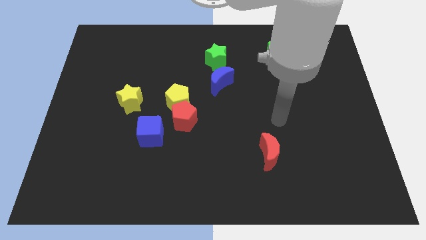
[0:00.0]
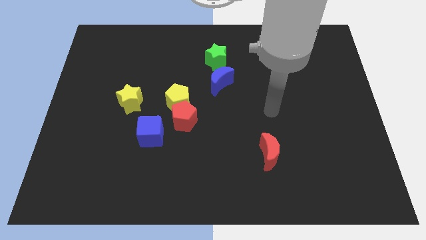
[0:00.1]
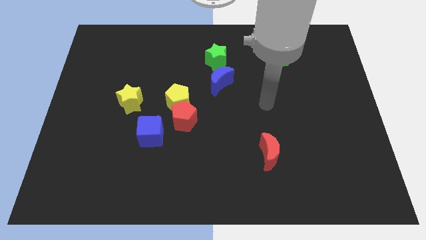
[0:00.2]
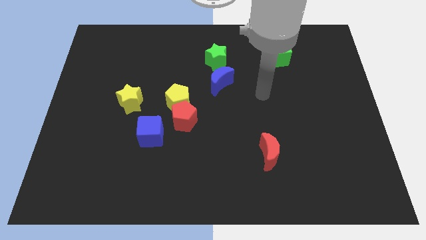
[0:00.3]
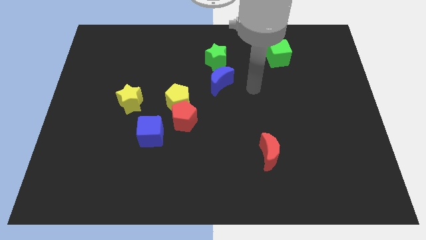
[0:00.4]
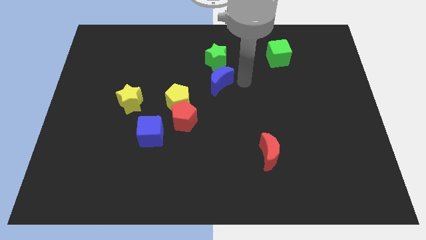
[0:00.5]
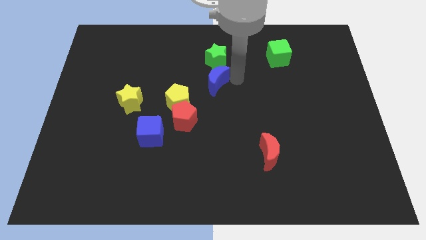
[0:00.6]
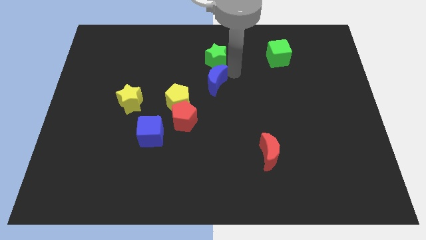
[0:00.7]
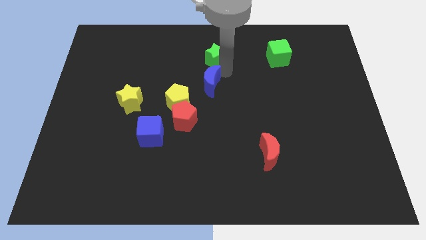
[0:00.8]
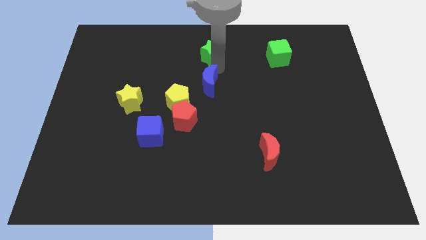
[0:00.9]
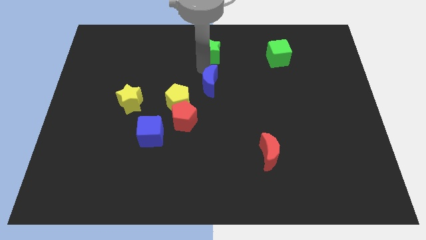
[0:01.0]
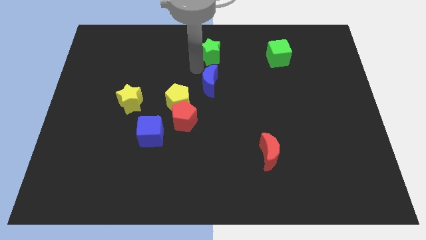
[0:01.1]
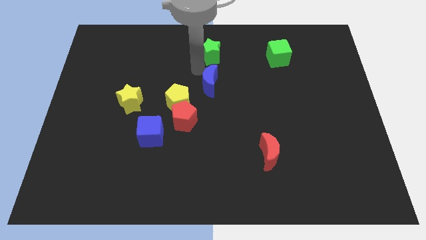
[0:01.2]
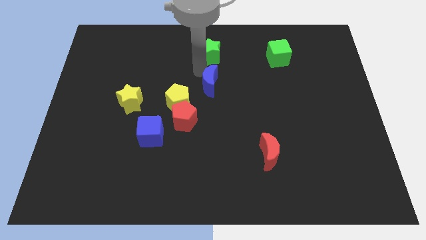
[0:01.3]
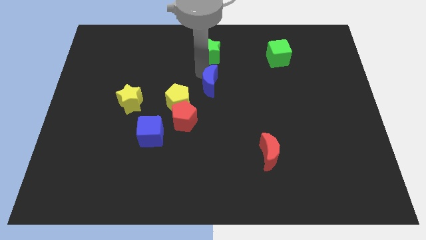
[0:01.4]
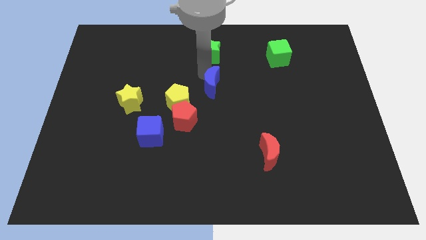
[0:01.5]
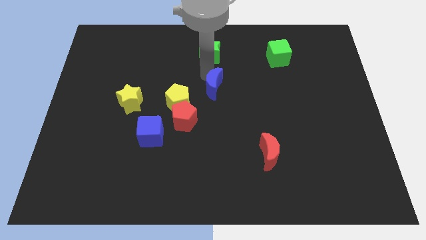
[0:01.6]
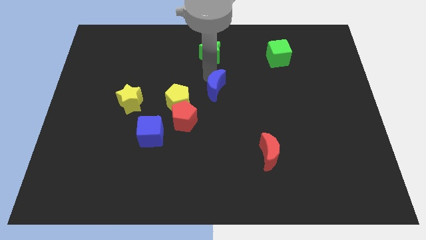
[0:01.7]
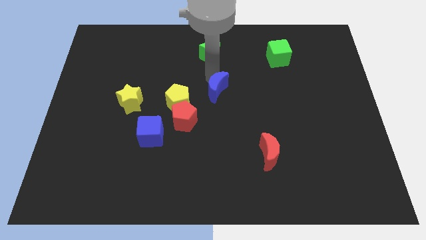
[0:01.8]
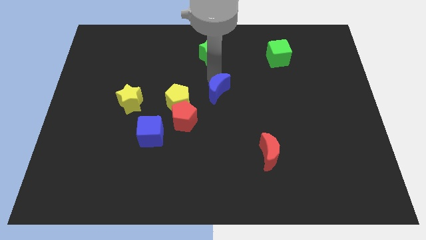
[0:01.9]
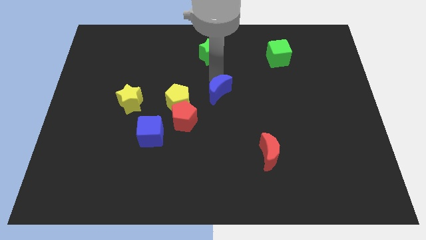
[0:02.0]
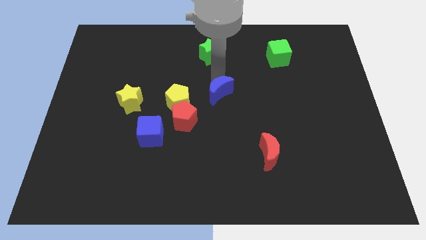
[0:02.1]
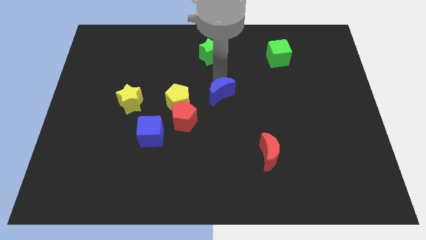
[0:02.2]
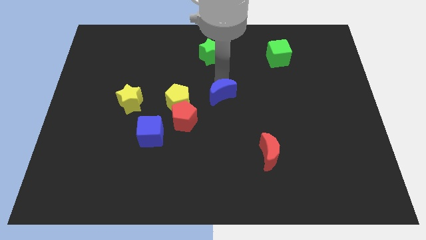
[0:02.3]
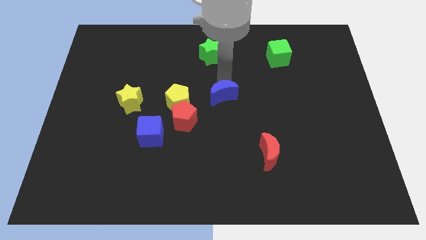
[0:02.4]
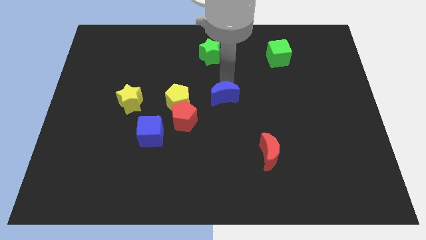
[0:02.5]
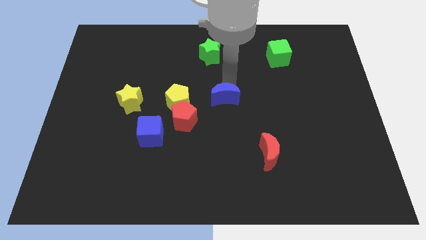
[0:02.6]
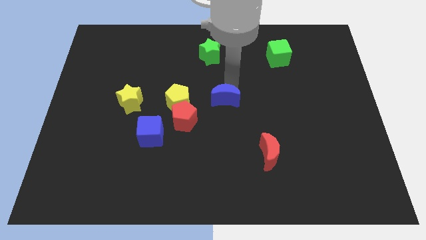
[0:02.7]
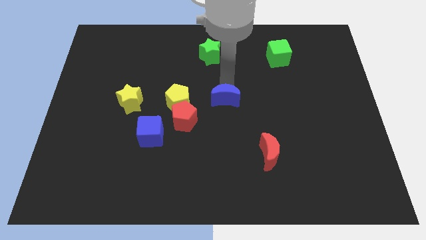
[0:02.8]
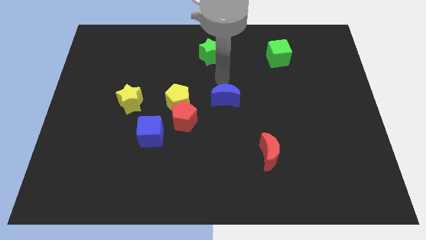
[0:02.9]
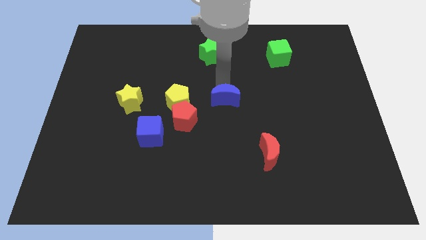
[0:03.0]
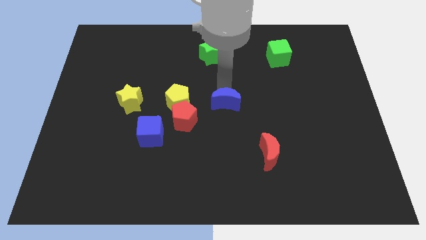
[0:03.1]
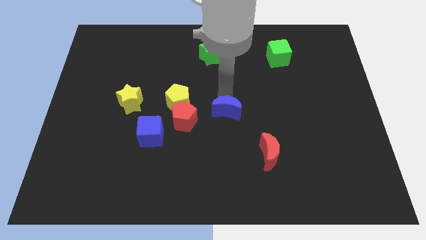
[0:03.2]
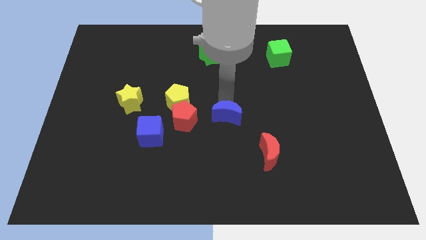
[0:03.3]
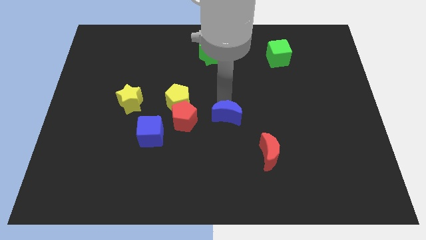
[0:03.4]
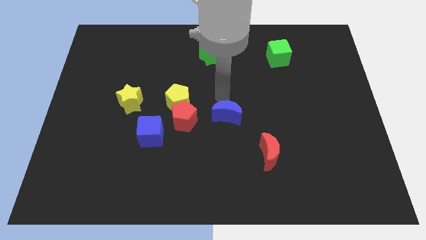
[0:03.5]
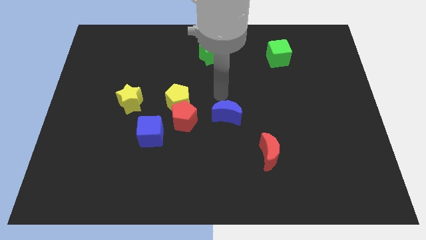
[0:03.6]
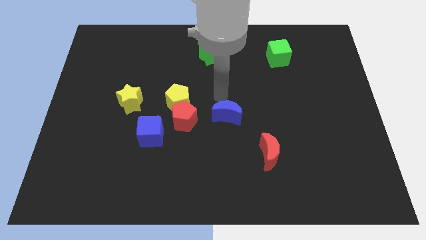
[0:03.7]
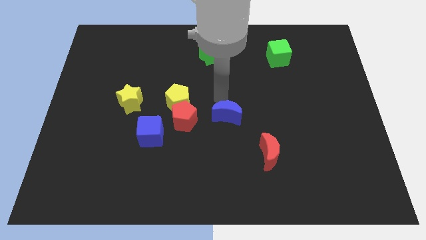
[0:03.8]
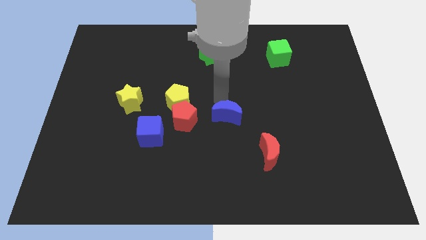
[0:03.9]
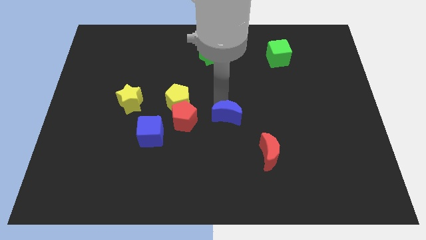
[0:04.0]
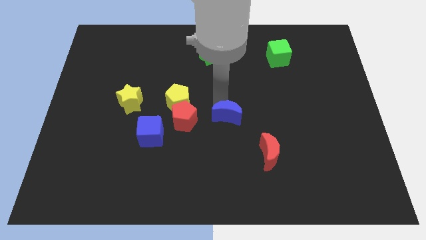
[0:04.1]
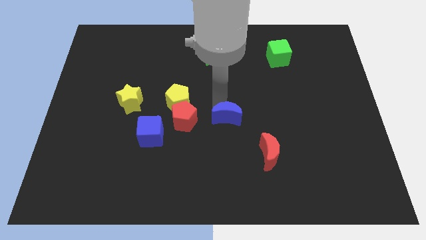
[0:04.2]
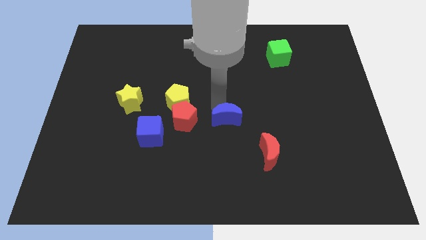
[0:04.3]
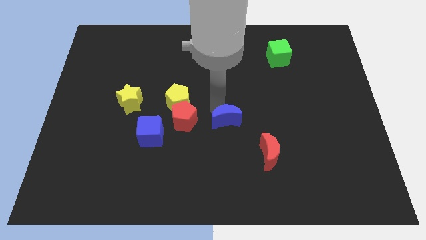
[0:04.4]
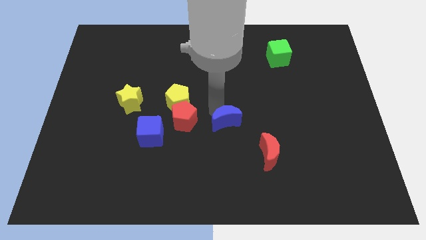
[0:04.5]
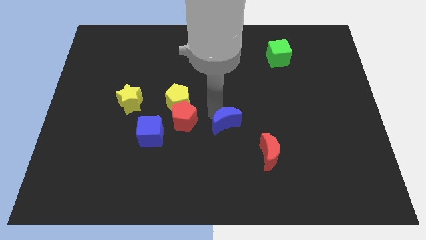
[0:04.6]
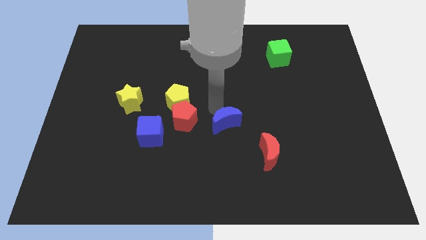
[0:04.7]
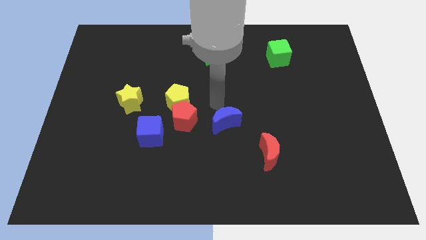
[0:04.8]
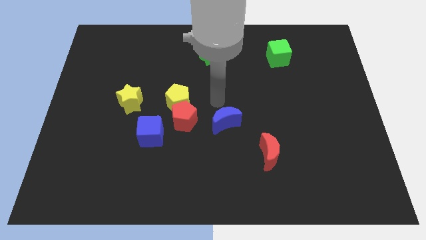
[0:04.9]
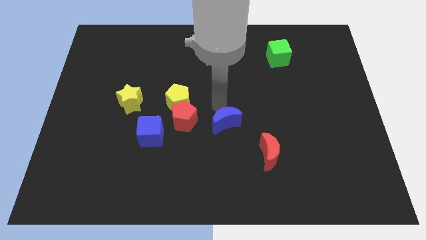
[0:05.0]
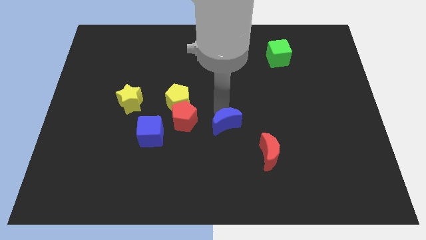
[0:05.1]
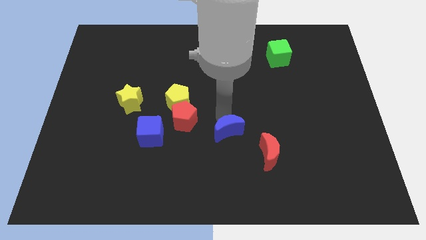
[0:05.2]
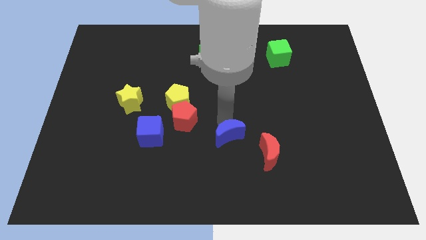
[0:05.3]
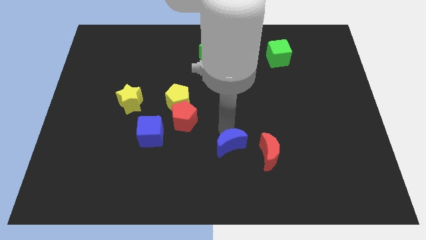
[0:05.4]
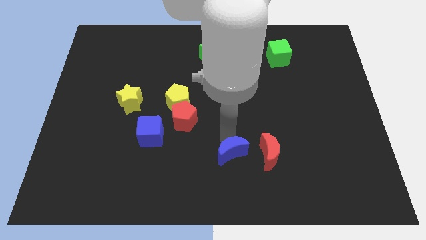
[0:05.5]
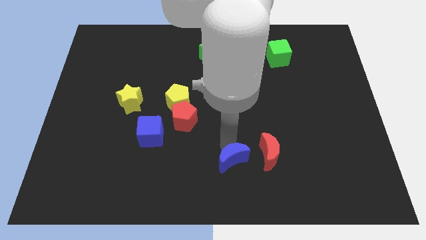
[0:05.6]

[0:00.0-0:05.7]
move the blue moon to the bottom left side of the red moon
